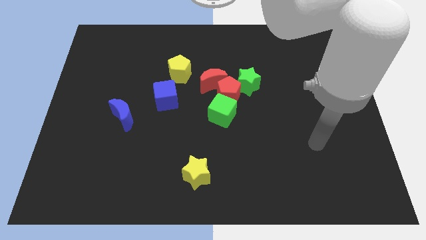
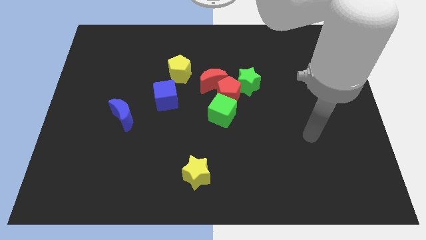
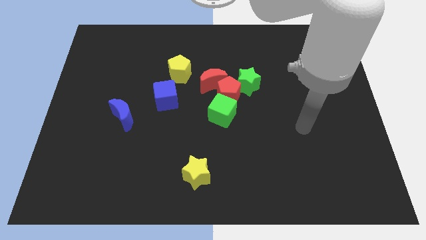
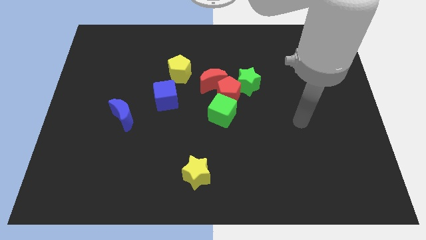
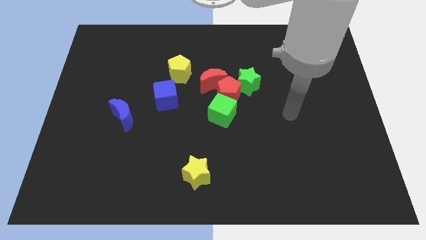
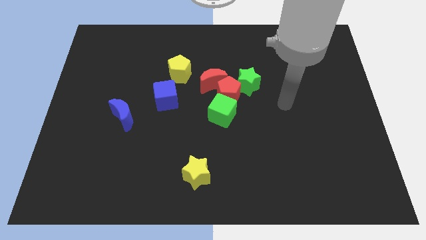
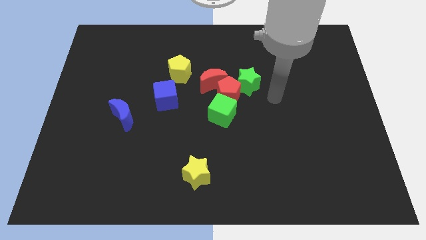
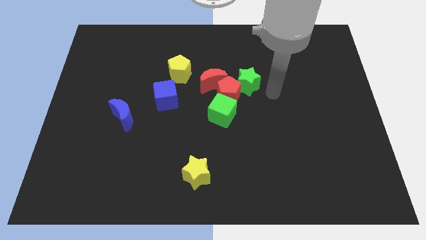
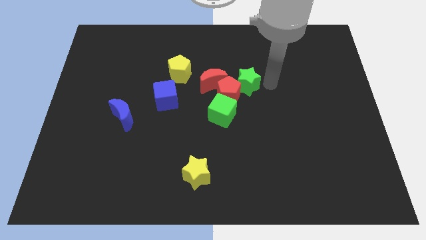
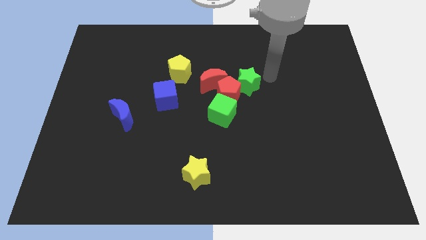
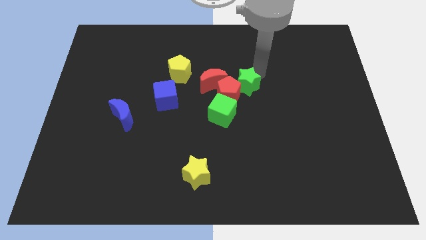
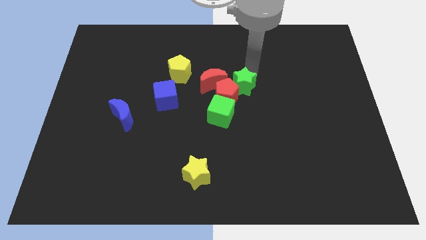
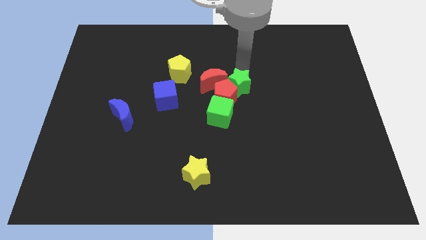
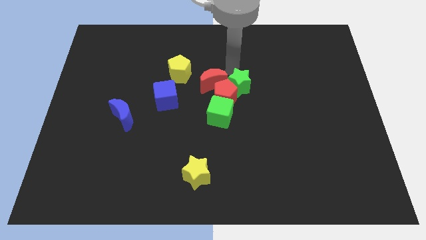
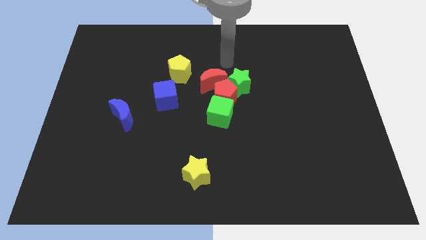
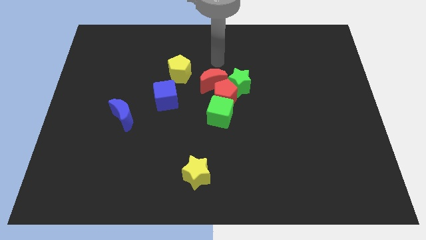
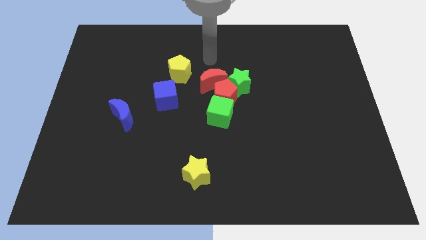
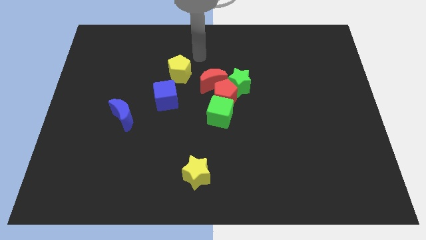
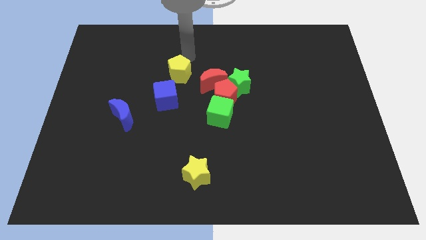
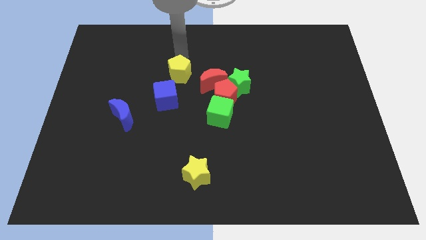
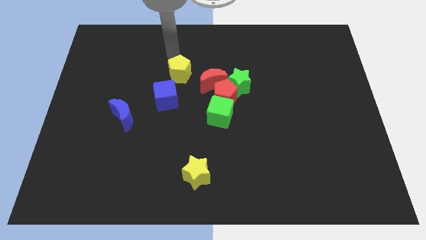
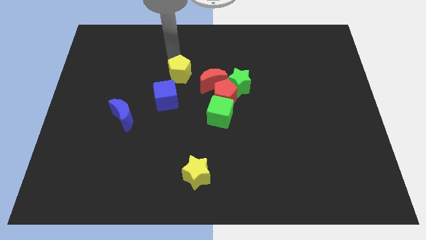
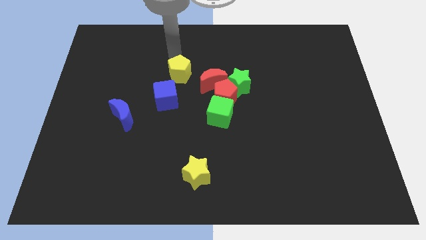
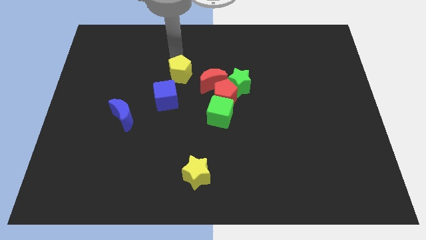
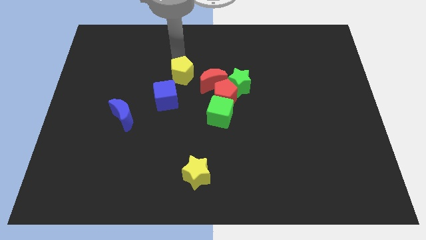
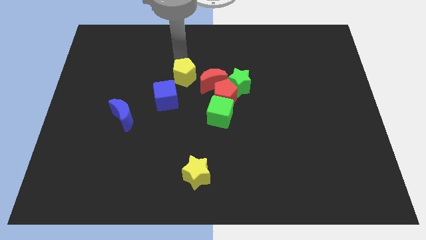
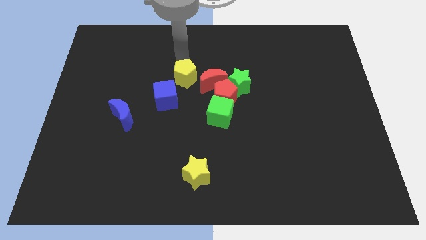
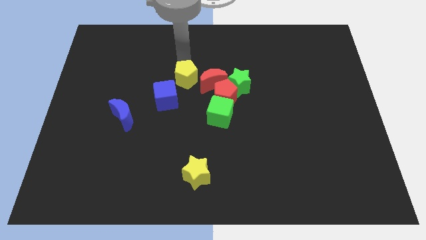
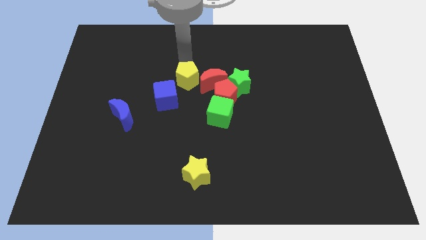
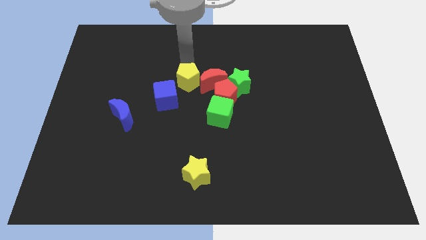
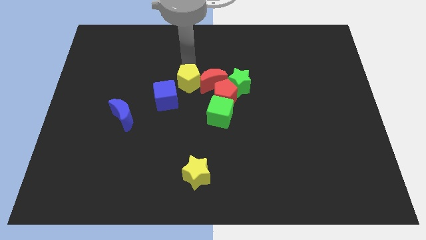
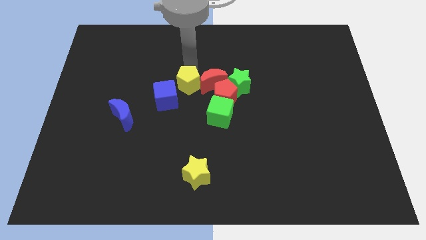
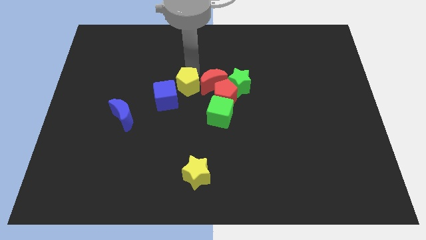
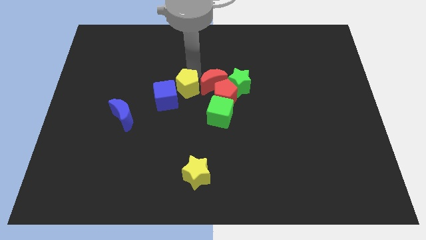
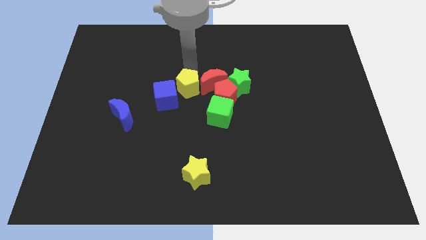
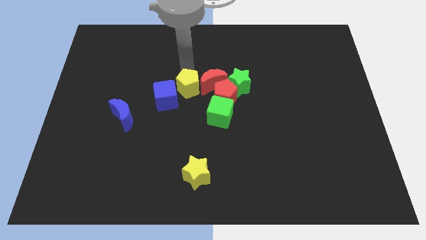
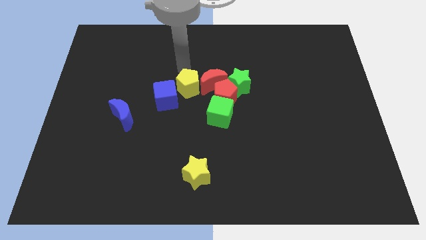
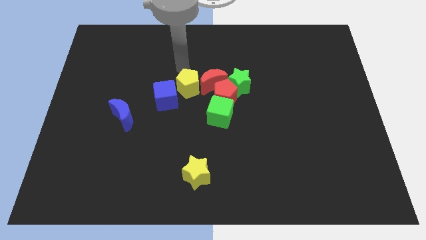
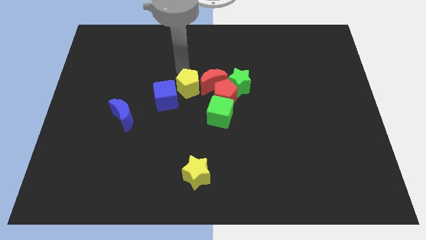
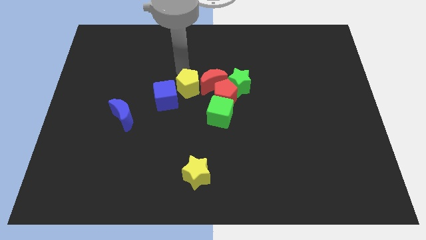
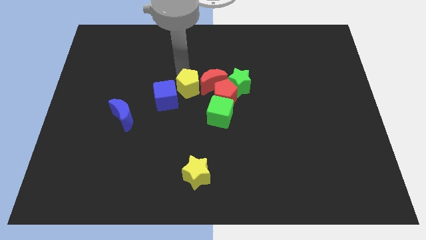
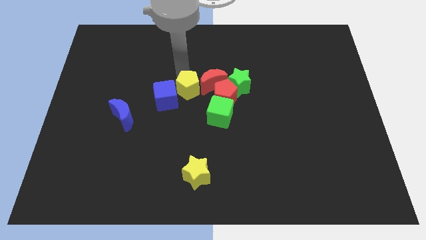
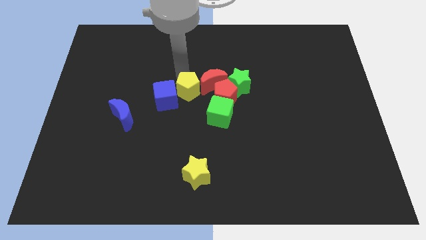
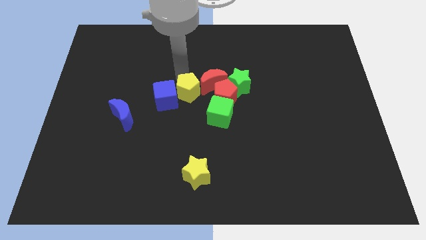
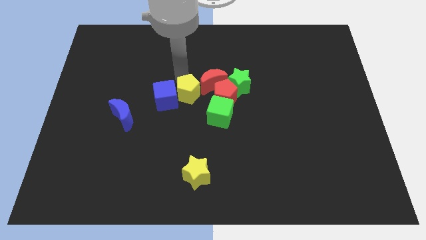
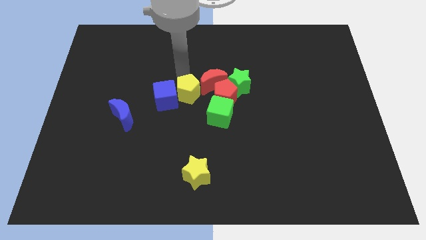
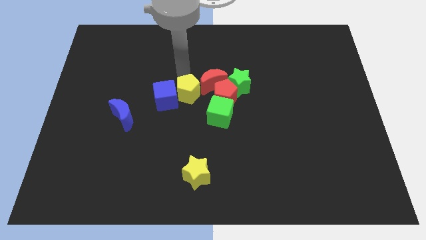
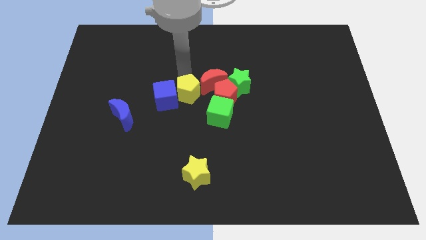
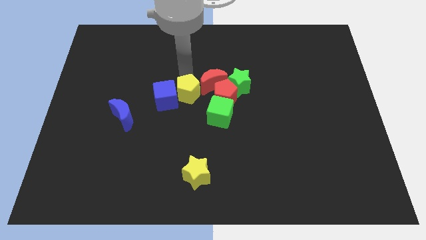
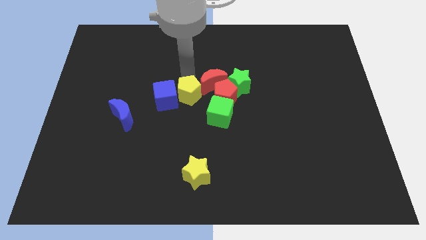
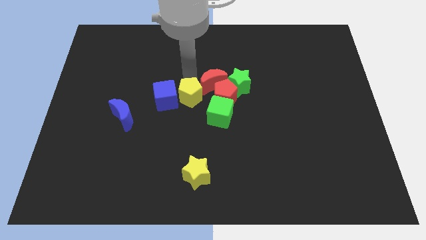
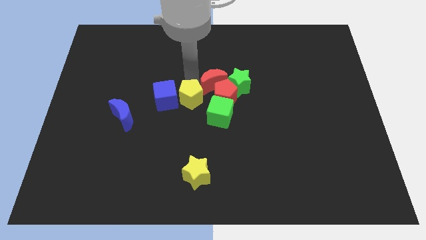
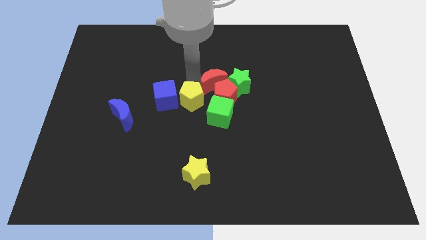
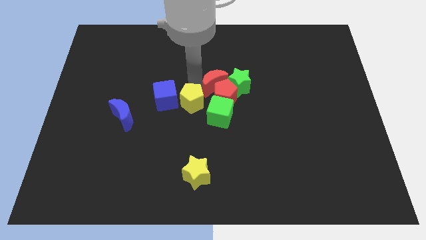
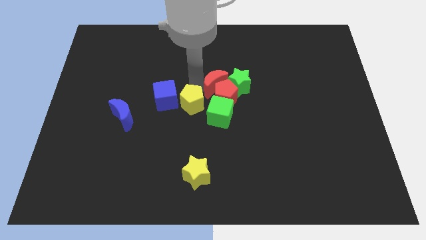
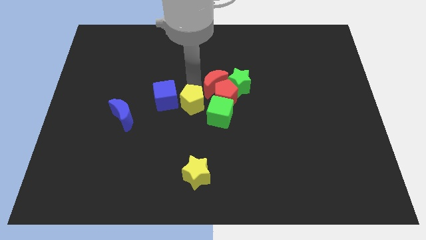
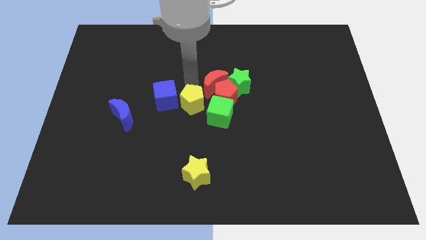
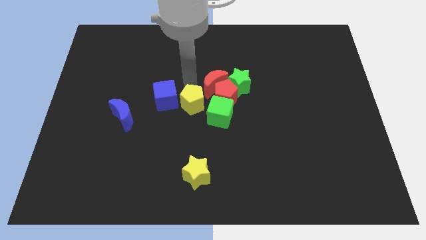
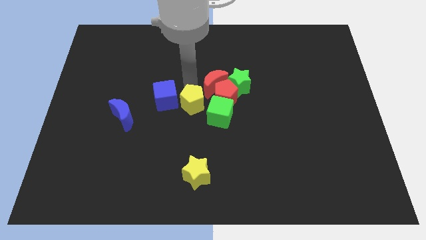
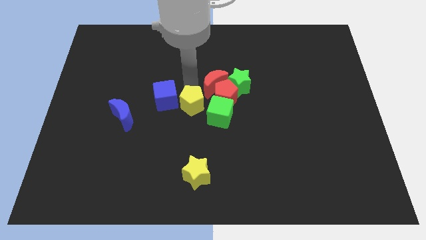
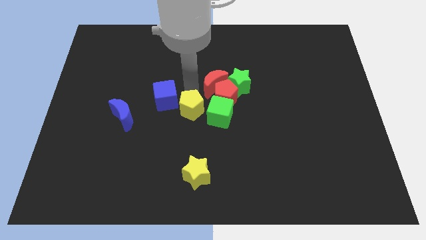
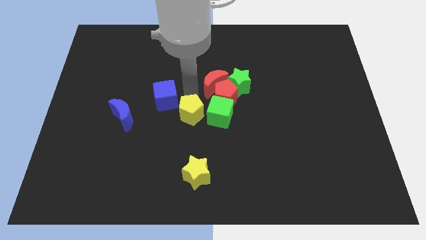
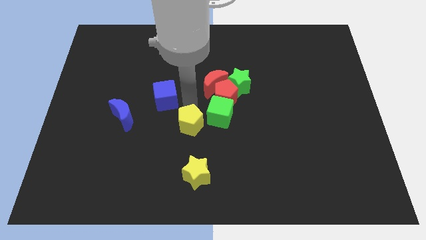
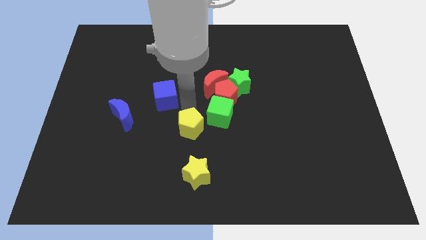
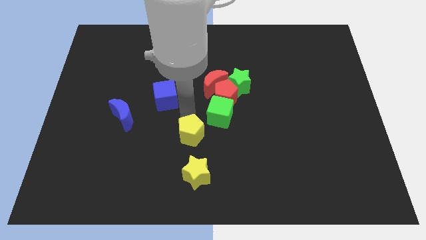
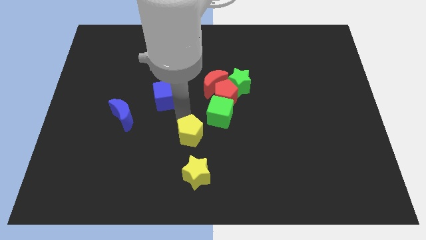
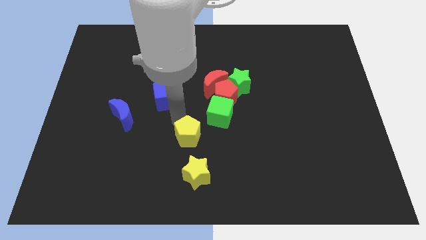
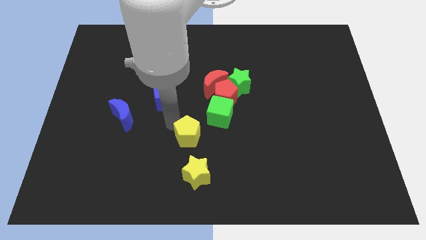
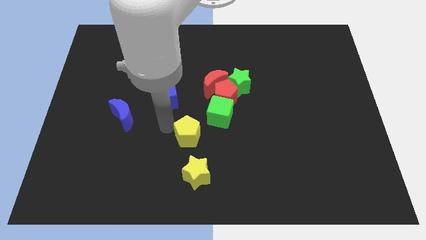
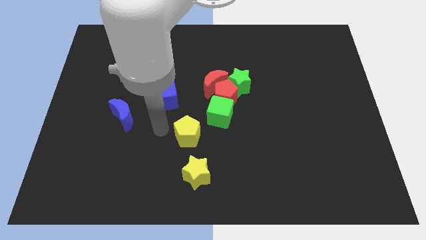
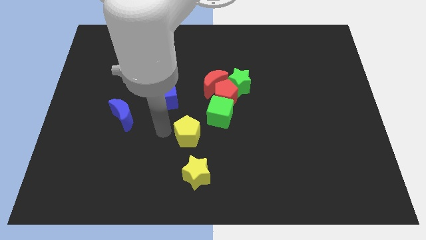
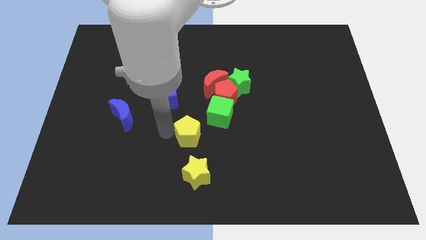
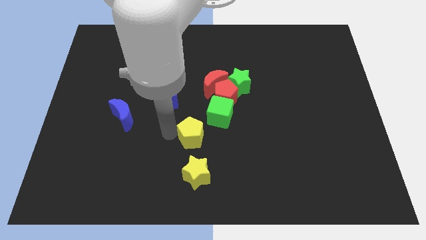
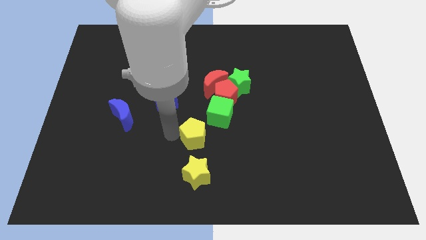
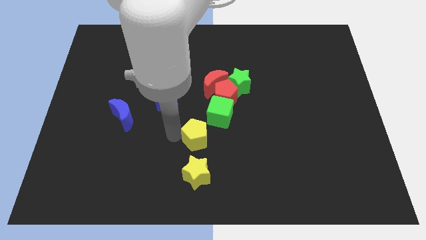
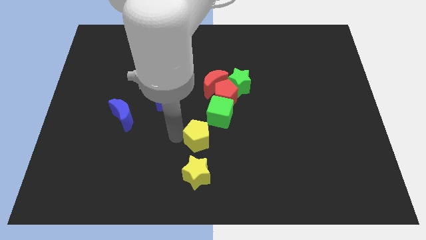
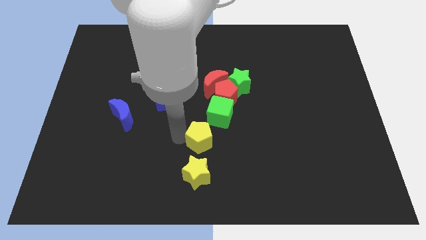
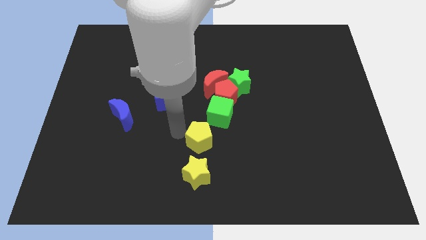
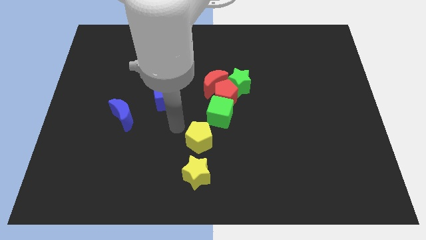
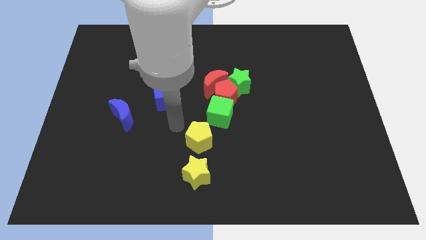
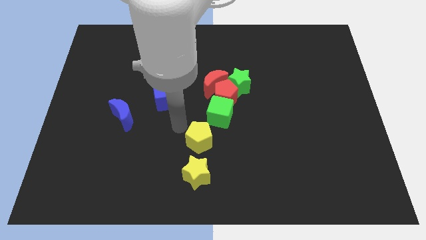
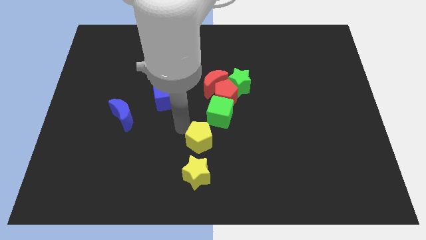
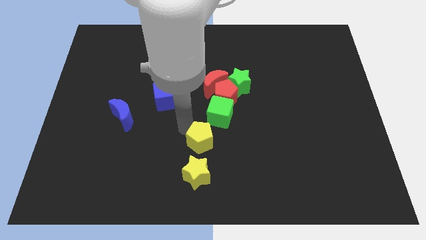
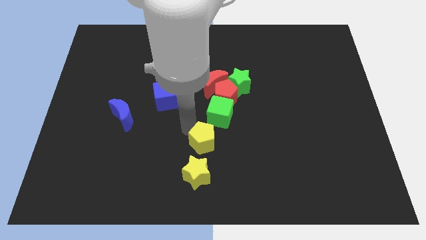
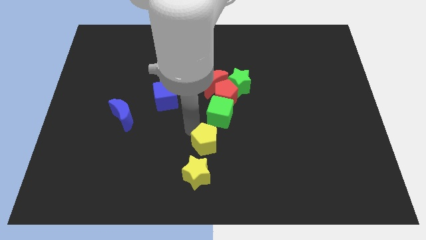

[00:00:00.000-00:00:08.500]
move the yellow pentagon to the top right of the yellow star
